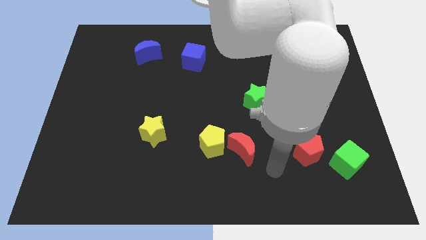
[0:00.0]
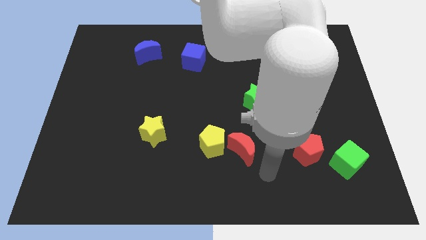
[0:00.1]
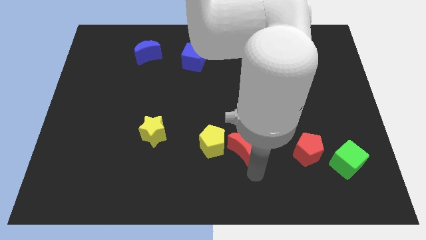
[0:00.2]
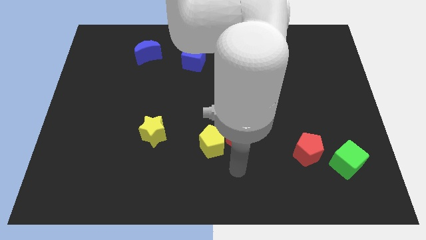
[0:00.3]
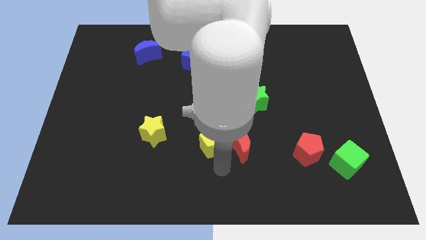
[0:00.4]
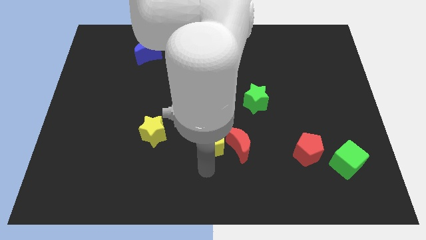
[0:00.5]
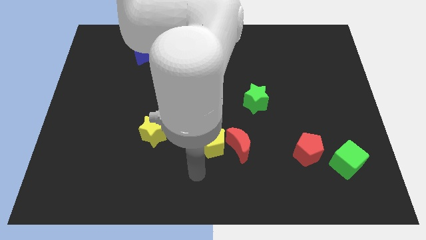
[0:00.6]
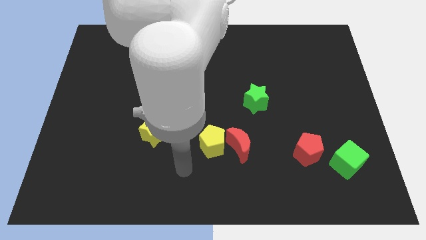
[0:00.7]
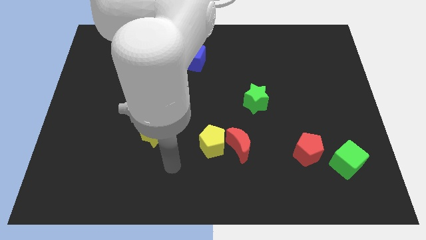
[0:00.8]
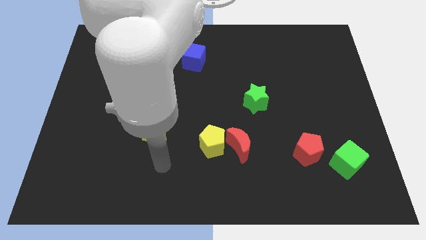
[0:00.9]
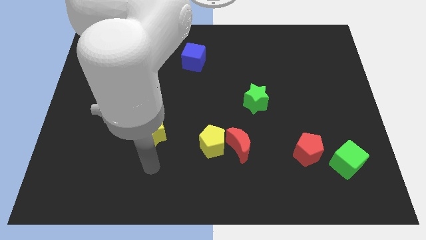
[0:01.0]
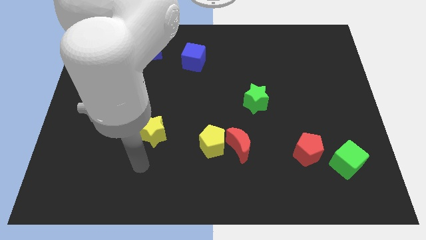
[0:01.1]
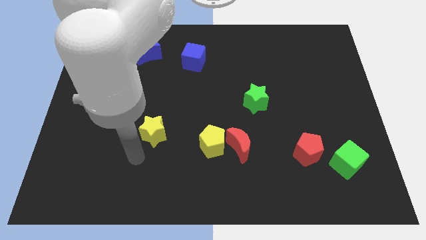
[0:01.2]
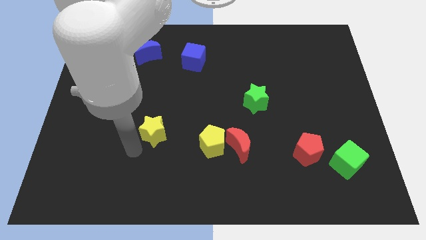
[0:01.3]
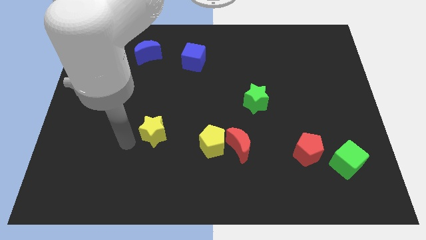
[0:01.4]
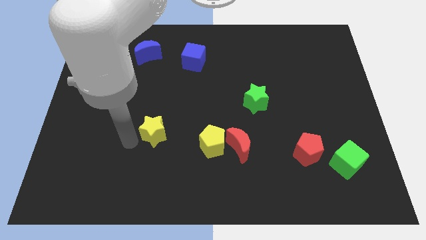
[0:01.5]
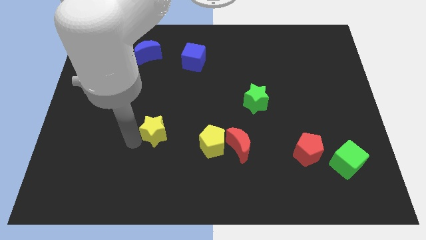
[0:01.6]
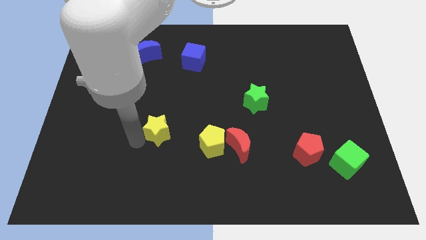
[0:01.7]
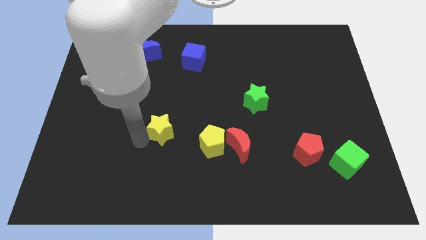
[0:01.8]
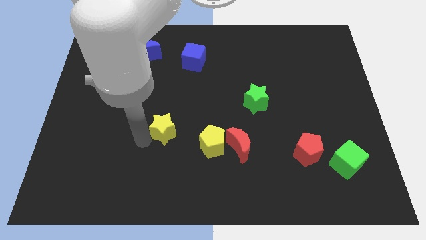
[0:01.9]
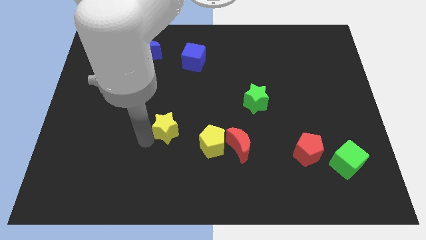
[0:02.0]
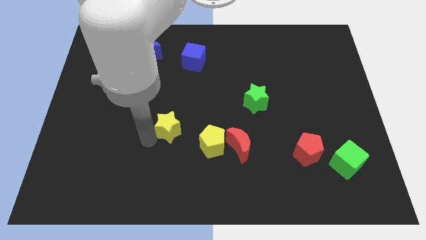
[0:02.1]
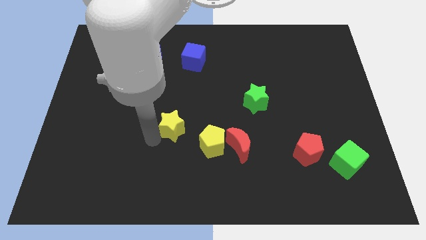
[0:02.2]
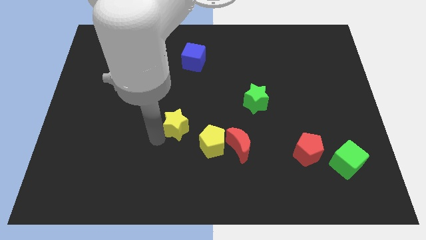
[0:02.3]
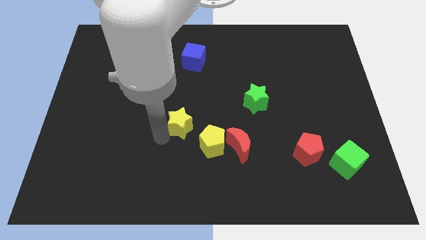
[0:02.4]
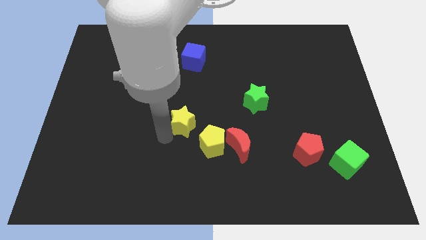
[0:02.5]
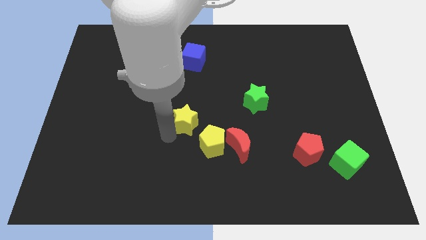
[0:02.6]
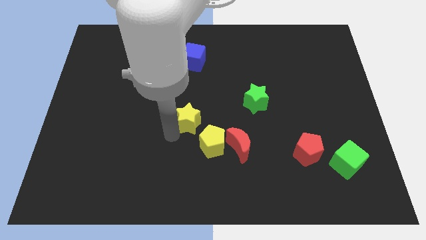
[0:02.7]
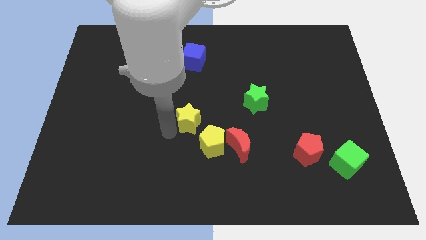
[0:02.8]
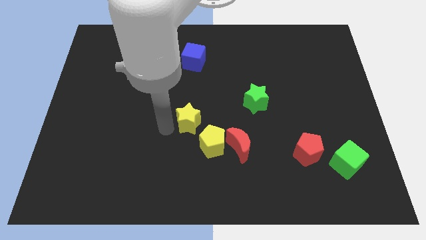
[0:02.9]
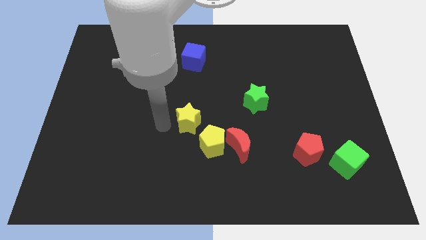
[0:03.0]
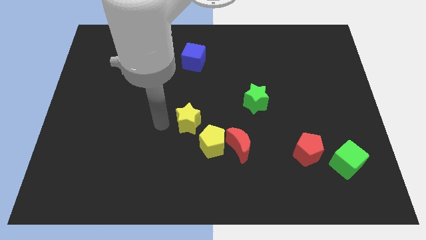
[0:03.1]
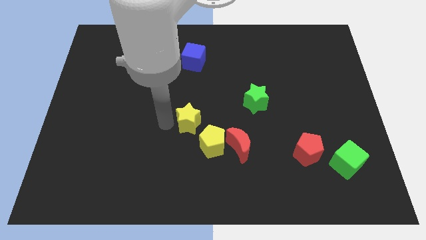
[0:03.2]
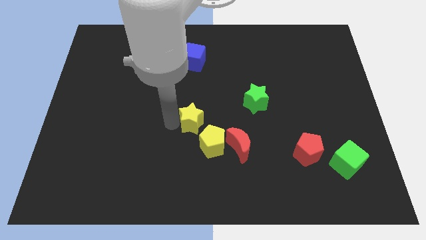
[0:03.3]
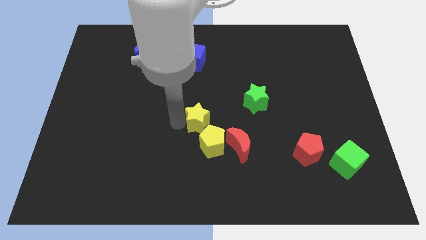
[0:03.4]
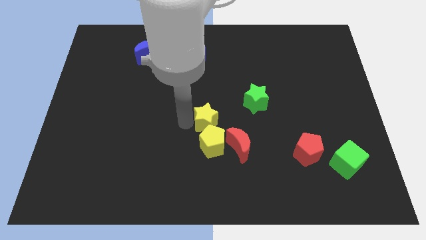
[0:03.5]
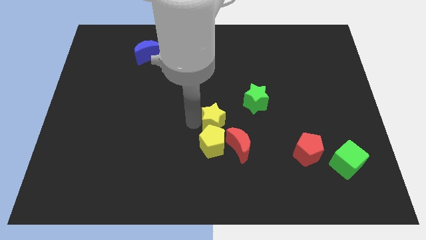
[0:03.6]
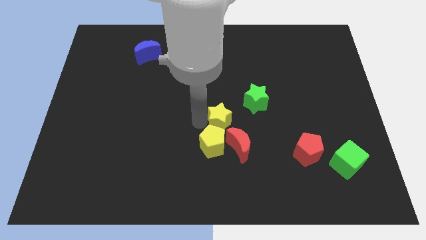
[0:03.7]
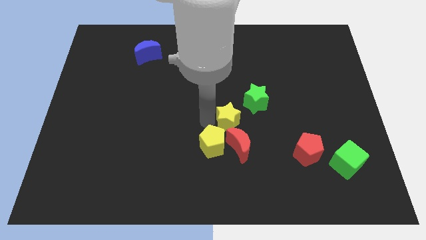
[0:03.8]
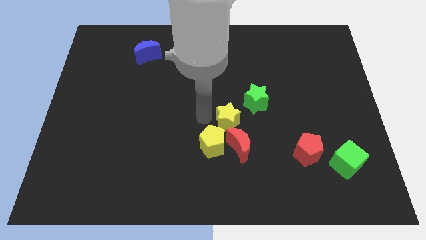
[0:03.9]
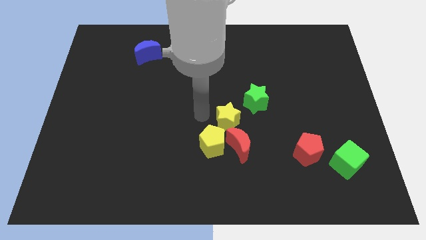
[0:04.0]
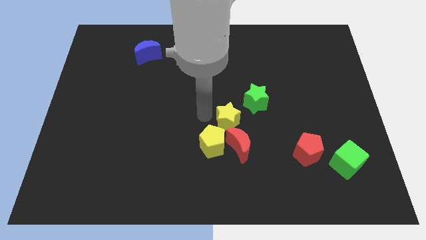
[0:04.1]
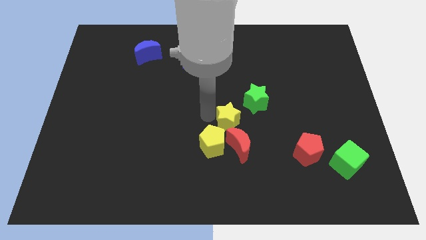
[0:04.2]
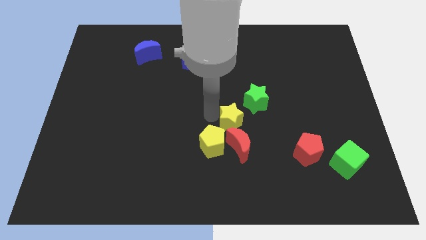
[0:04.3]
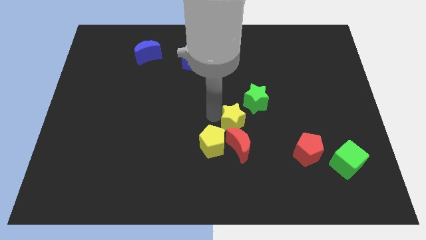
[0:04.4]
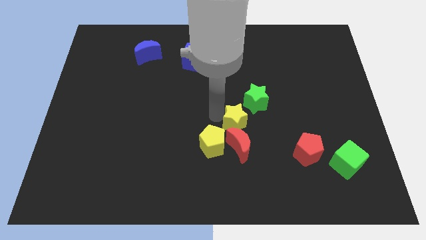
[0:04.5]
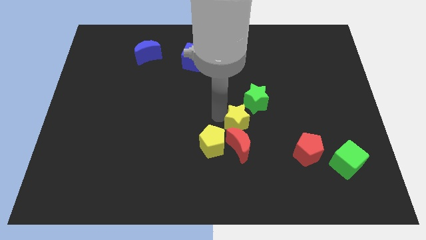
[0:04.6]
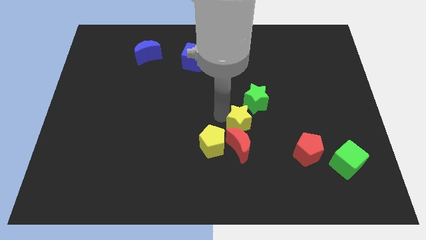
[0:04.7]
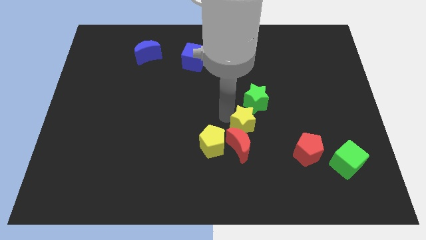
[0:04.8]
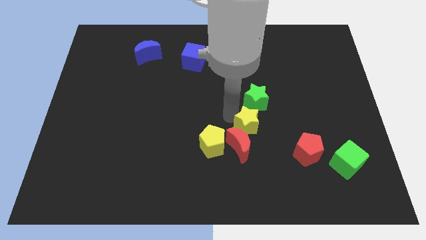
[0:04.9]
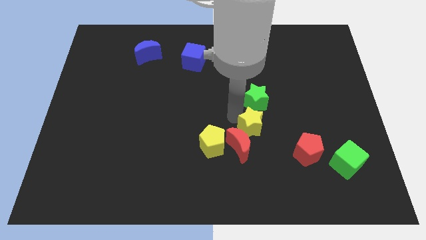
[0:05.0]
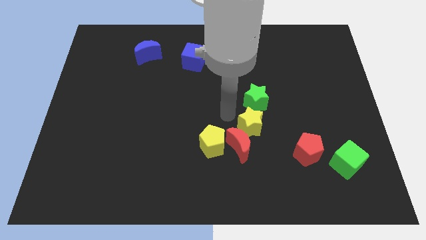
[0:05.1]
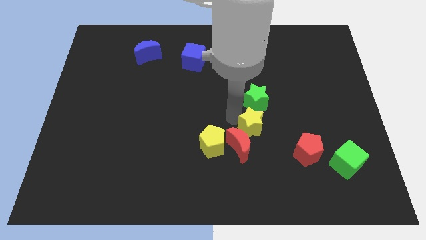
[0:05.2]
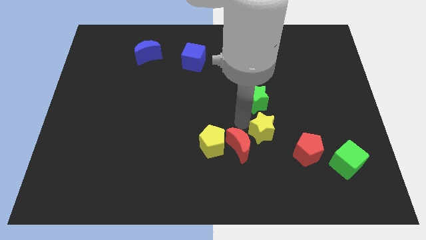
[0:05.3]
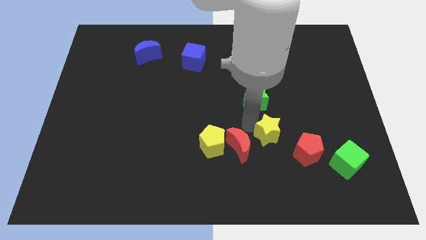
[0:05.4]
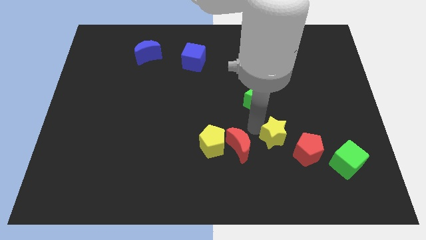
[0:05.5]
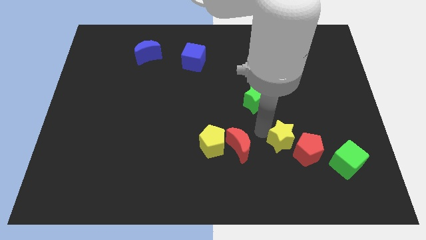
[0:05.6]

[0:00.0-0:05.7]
put the yellow star to the red pentagon

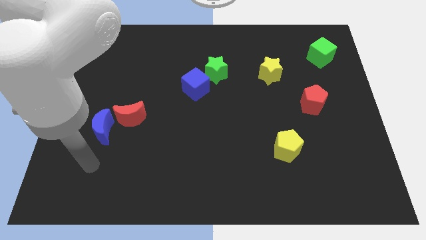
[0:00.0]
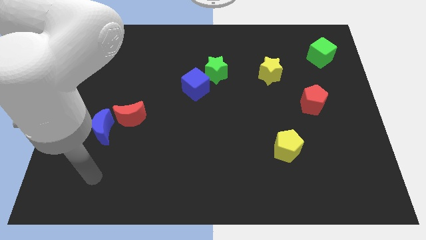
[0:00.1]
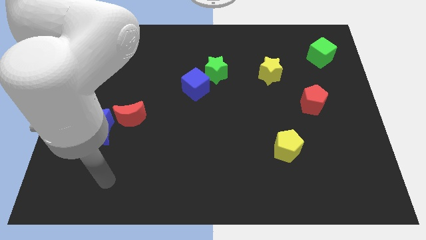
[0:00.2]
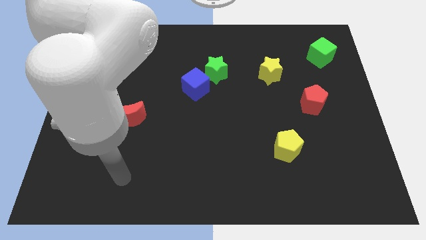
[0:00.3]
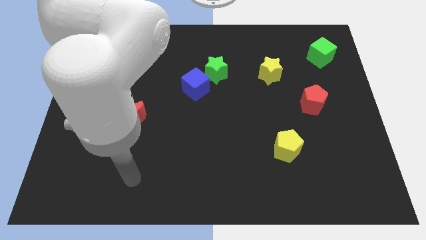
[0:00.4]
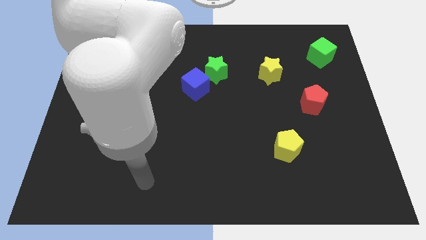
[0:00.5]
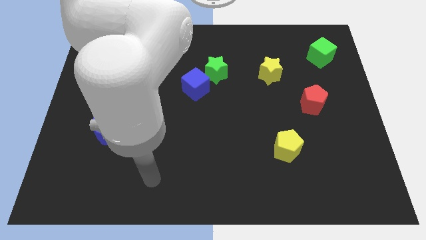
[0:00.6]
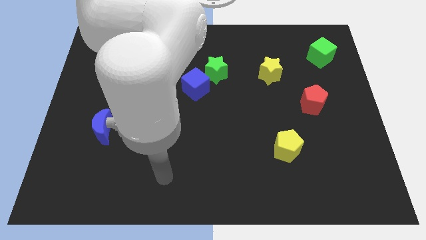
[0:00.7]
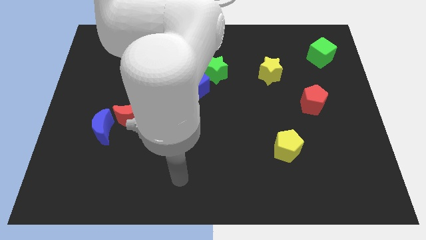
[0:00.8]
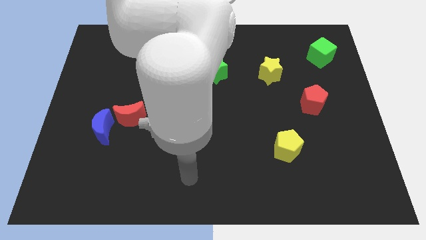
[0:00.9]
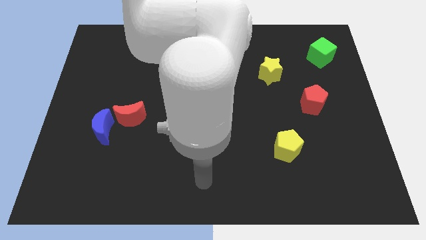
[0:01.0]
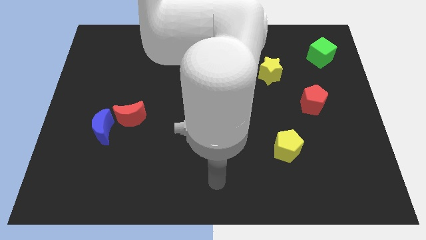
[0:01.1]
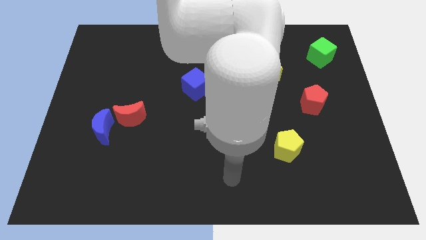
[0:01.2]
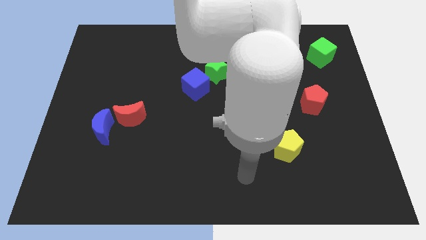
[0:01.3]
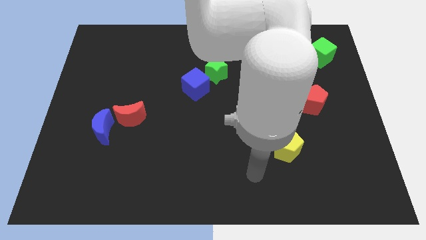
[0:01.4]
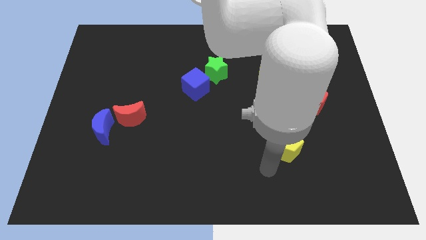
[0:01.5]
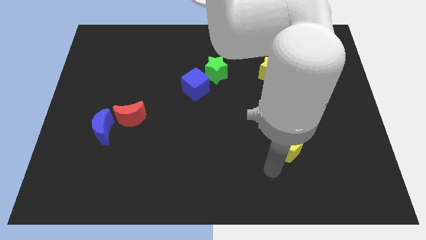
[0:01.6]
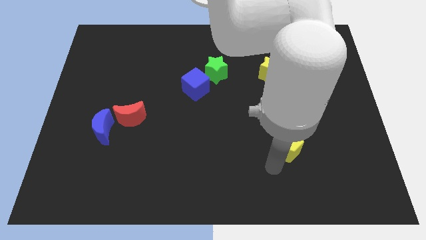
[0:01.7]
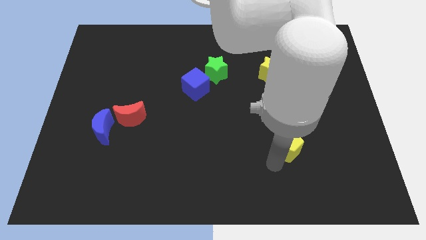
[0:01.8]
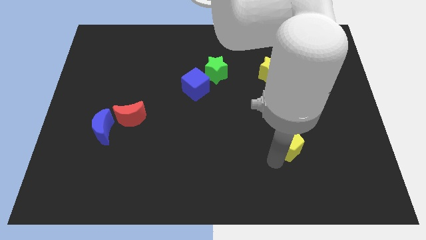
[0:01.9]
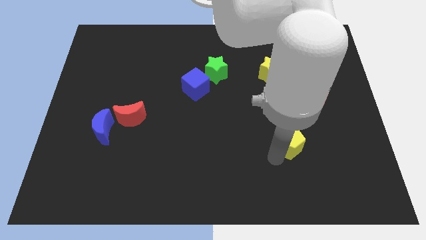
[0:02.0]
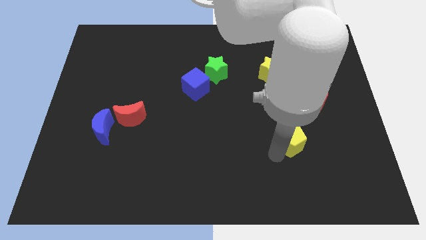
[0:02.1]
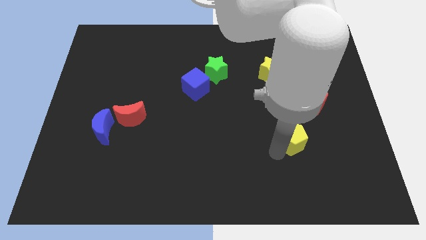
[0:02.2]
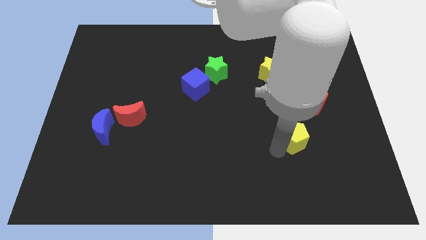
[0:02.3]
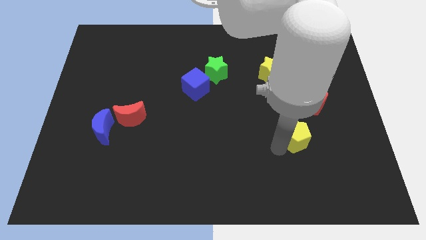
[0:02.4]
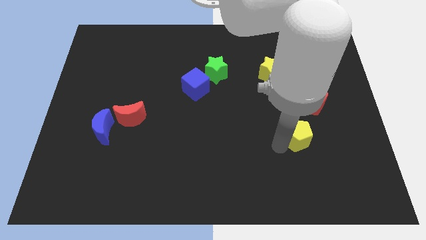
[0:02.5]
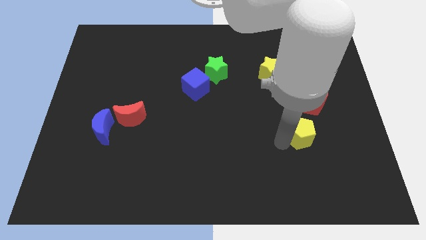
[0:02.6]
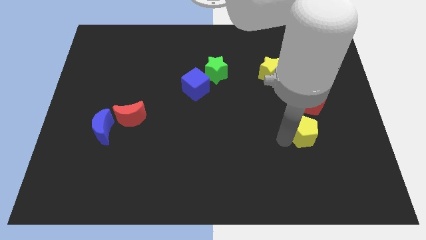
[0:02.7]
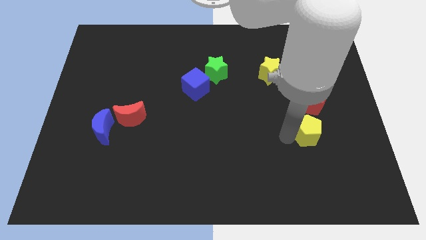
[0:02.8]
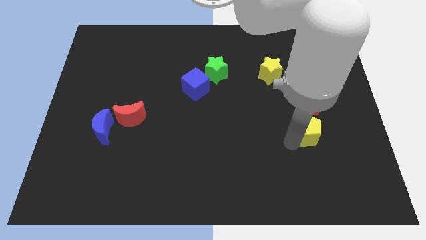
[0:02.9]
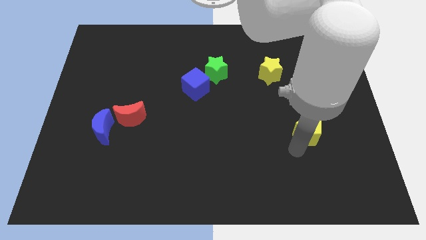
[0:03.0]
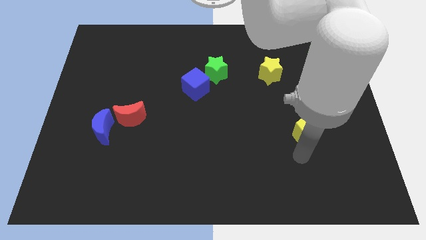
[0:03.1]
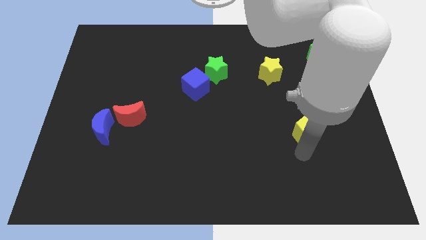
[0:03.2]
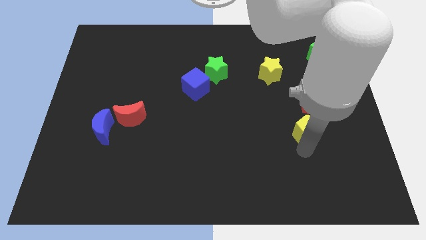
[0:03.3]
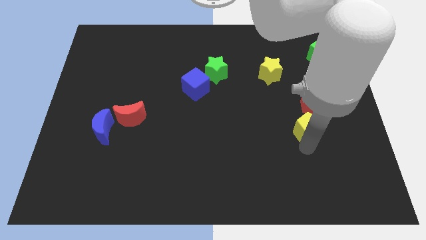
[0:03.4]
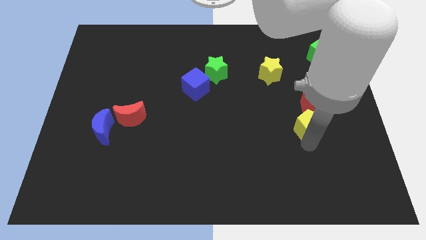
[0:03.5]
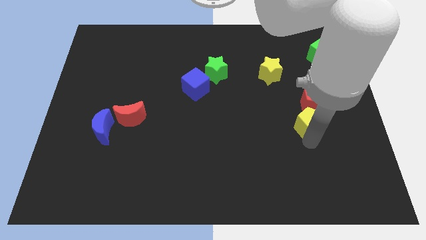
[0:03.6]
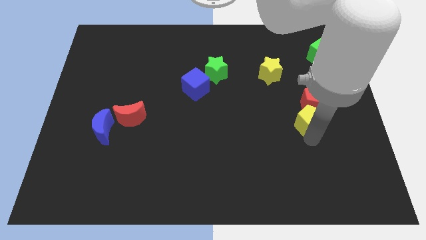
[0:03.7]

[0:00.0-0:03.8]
put the yellow pentagon close to the red pentagon
